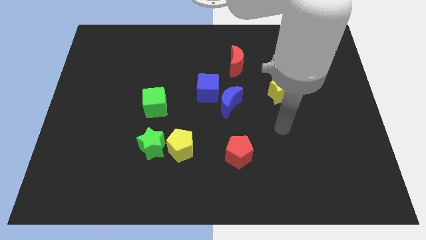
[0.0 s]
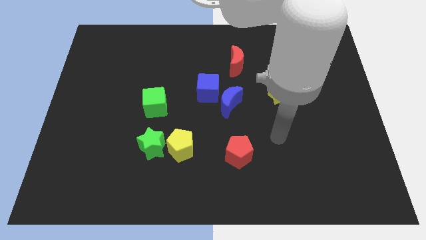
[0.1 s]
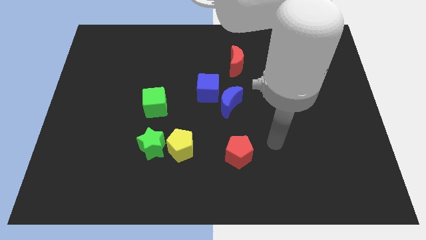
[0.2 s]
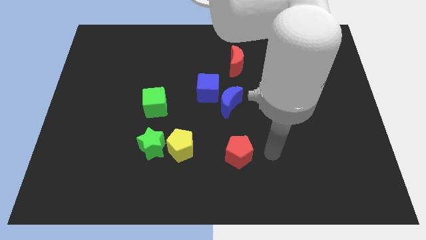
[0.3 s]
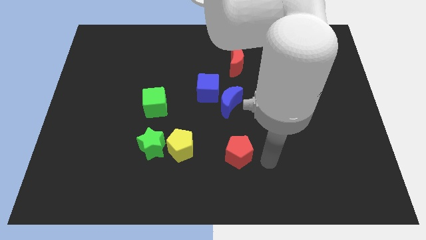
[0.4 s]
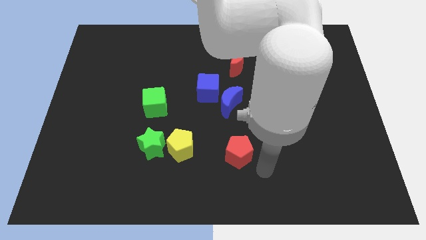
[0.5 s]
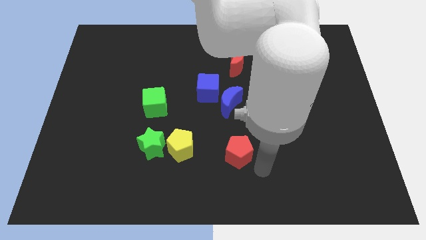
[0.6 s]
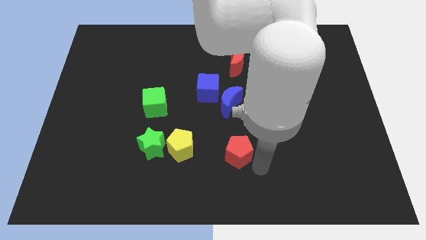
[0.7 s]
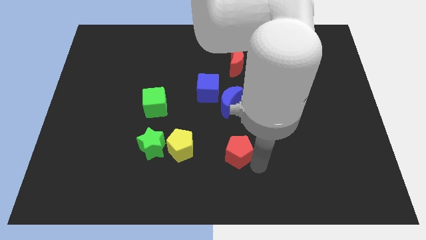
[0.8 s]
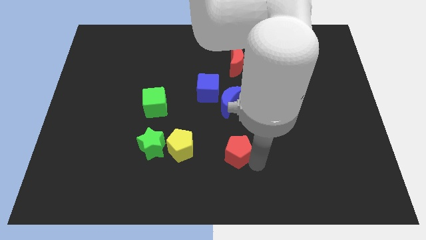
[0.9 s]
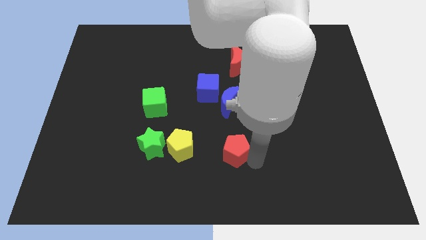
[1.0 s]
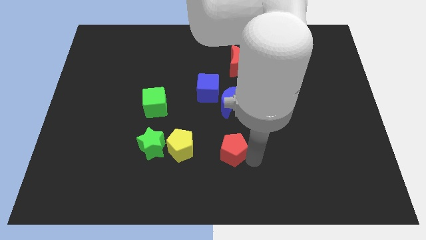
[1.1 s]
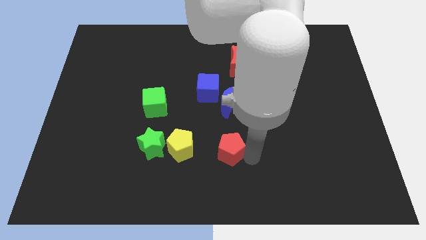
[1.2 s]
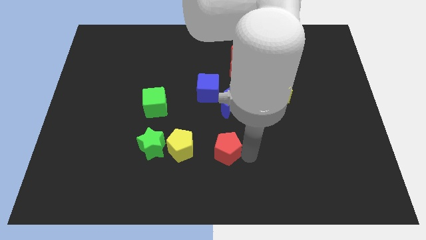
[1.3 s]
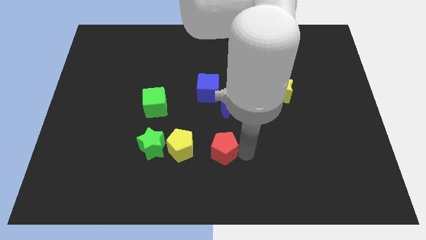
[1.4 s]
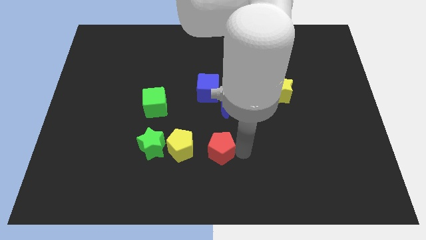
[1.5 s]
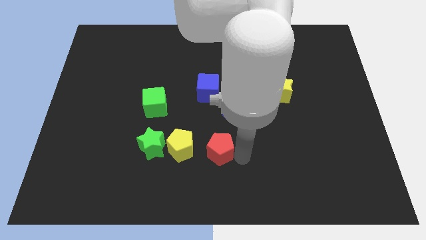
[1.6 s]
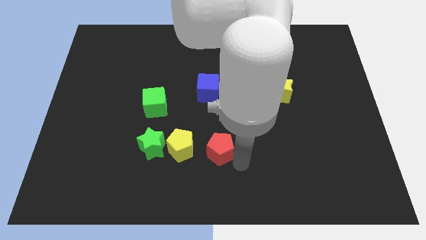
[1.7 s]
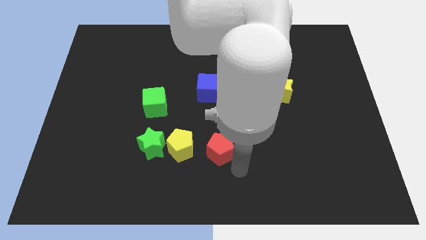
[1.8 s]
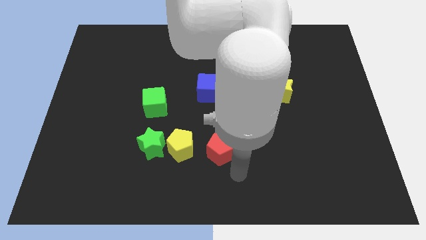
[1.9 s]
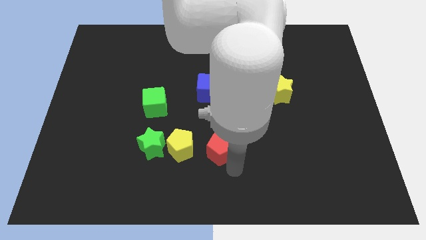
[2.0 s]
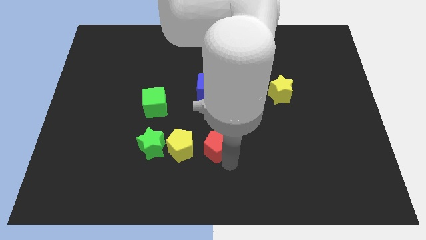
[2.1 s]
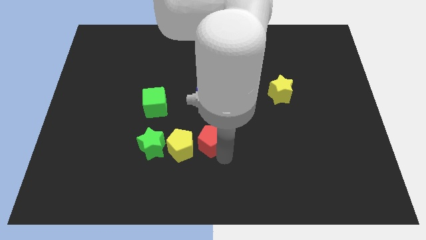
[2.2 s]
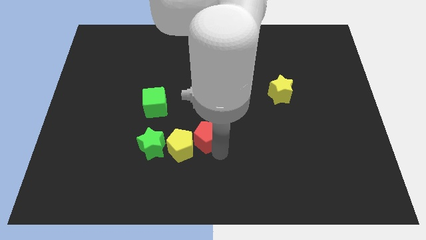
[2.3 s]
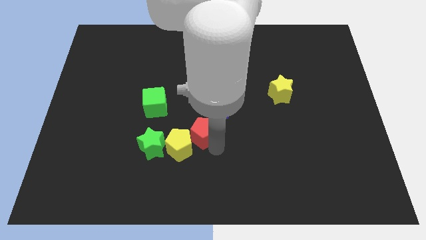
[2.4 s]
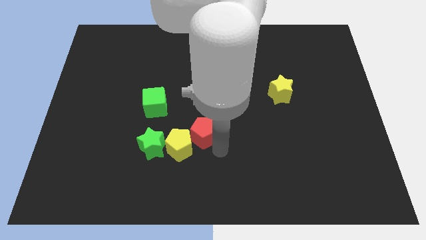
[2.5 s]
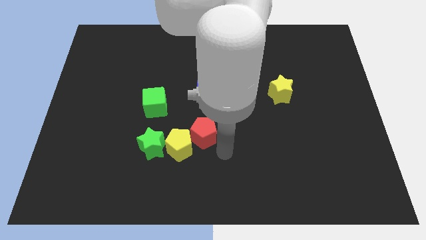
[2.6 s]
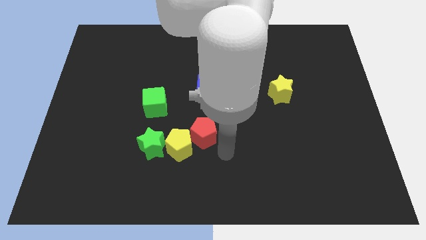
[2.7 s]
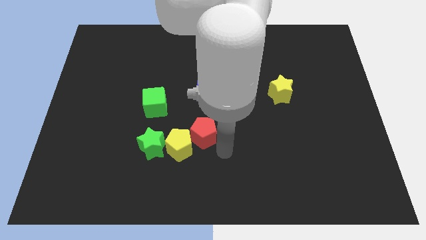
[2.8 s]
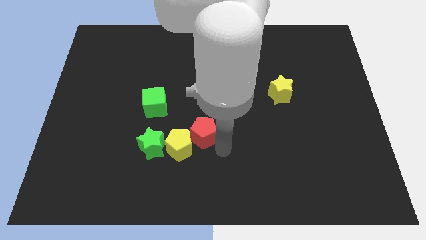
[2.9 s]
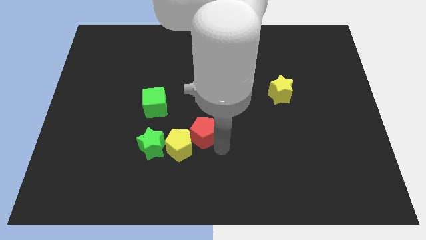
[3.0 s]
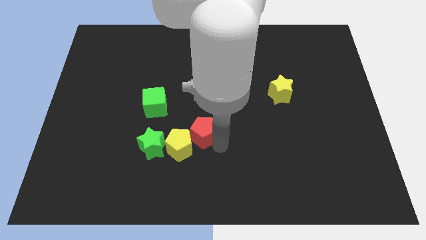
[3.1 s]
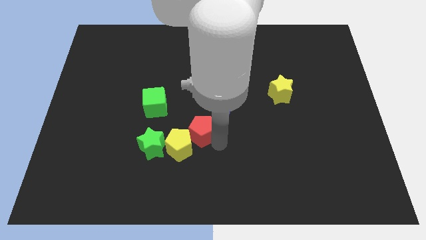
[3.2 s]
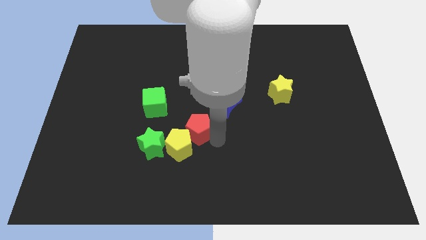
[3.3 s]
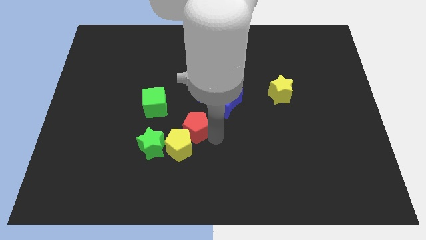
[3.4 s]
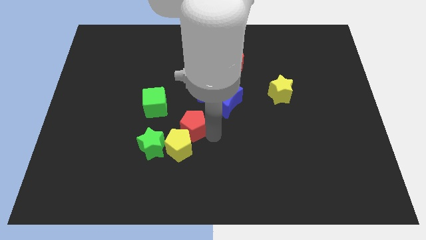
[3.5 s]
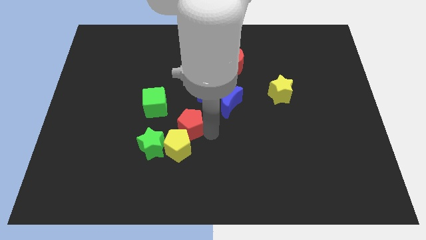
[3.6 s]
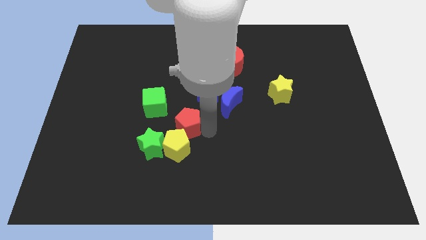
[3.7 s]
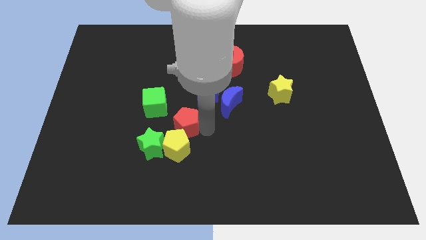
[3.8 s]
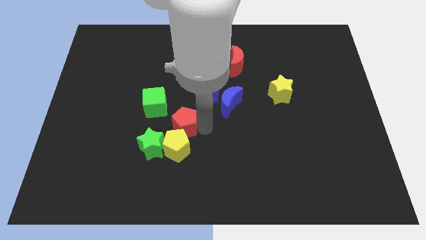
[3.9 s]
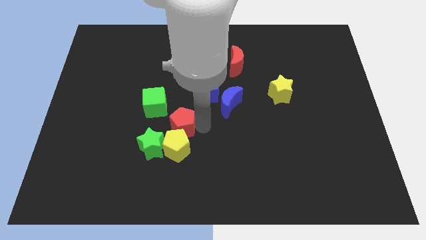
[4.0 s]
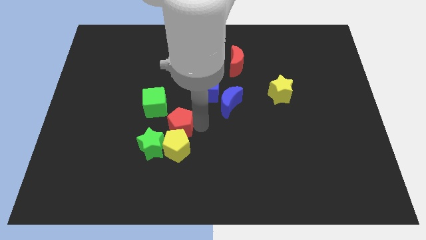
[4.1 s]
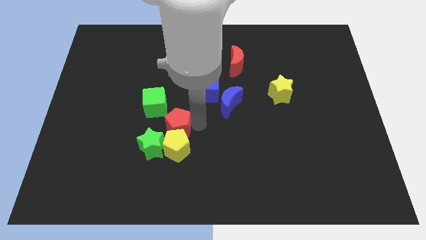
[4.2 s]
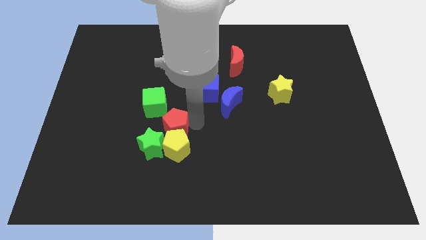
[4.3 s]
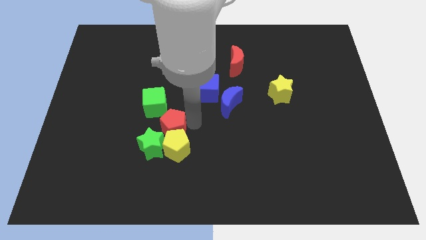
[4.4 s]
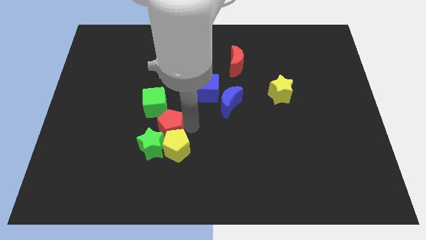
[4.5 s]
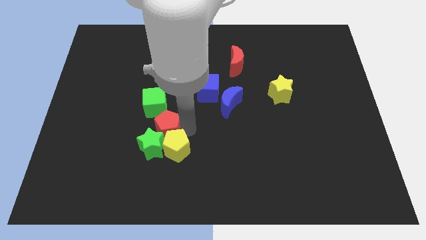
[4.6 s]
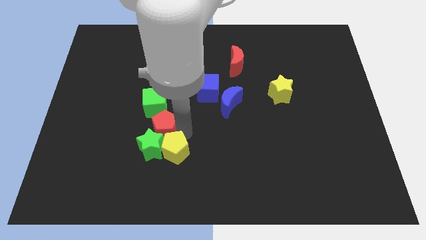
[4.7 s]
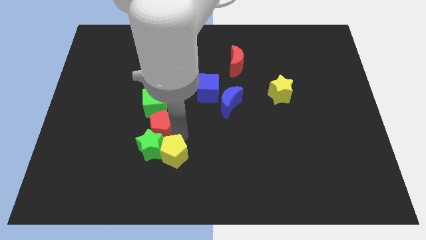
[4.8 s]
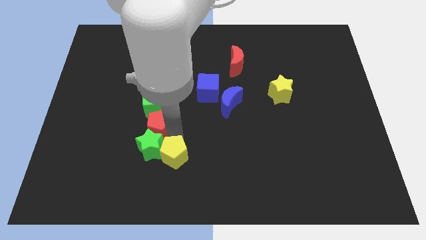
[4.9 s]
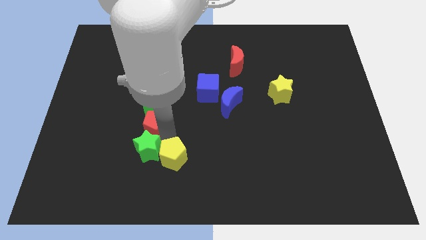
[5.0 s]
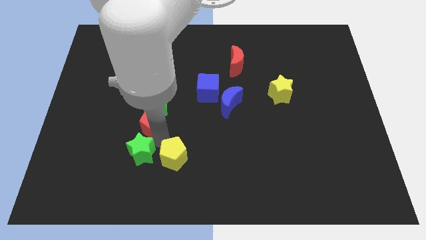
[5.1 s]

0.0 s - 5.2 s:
put the red pentagon next to the green cube

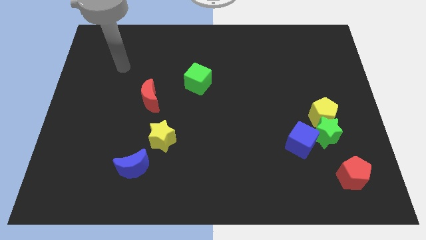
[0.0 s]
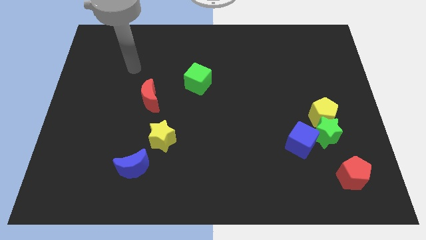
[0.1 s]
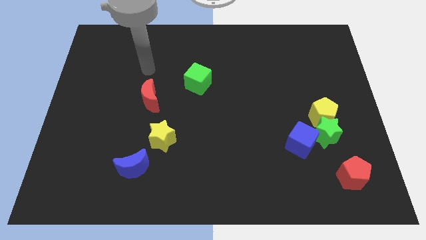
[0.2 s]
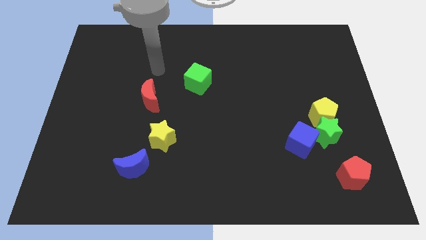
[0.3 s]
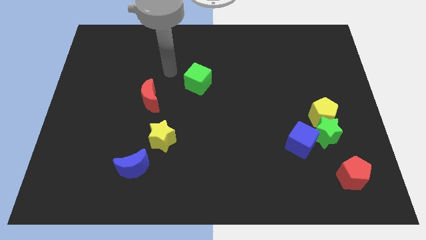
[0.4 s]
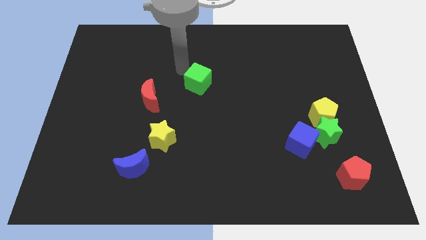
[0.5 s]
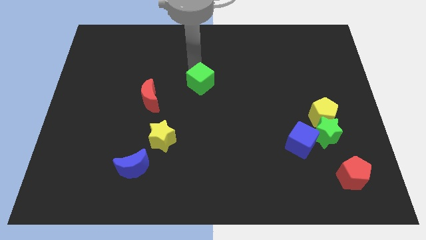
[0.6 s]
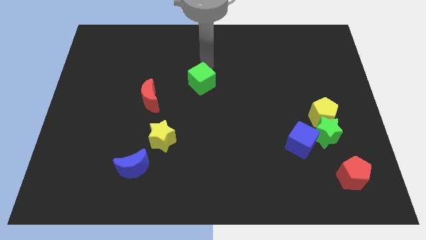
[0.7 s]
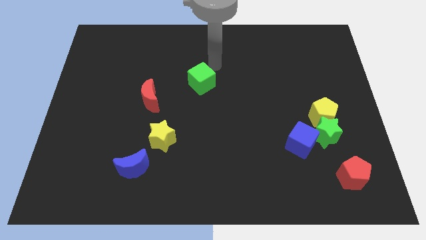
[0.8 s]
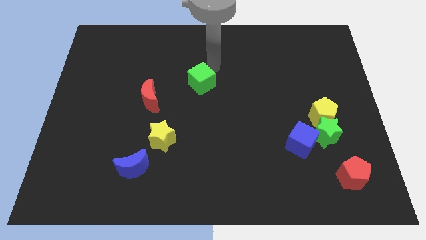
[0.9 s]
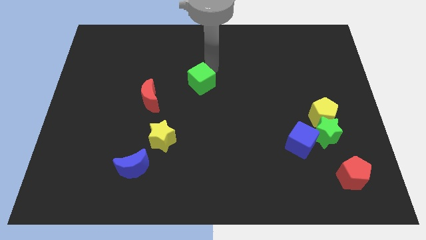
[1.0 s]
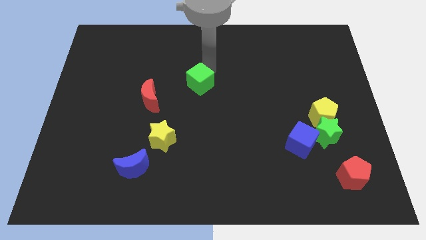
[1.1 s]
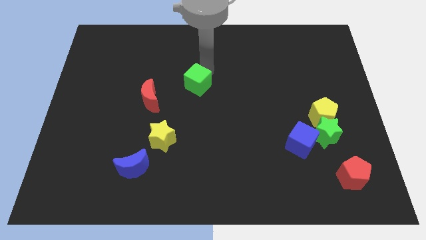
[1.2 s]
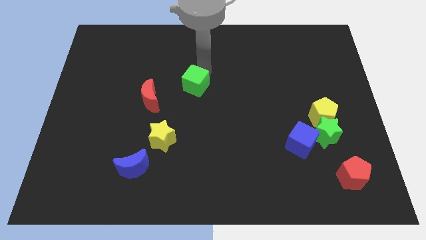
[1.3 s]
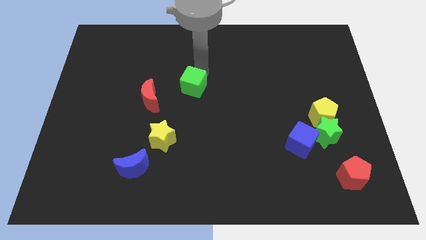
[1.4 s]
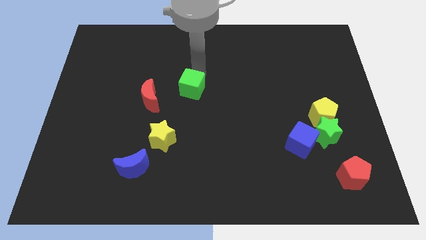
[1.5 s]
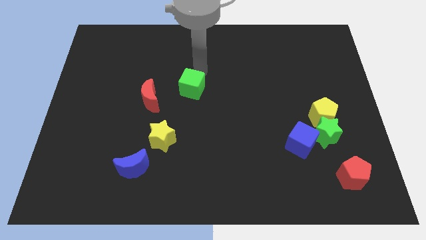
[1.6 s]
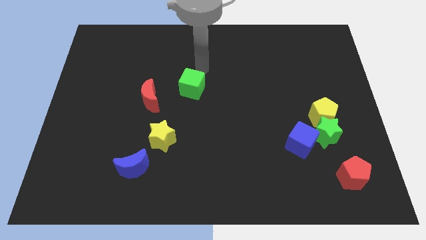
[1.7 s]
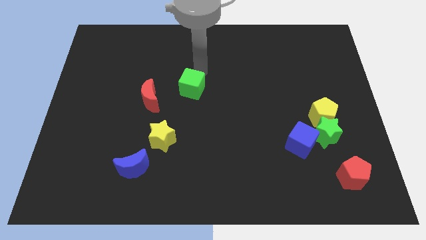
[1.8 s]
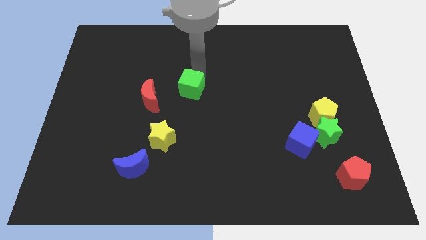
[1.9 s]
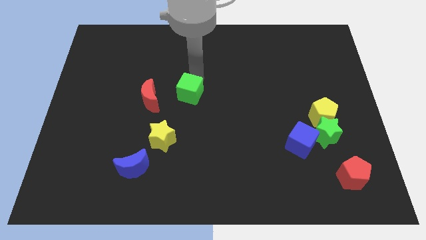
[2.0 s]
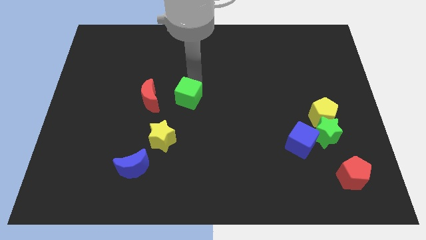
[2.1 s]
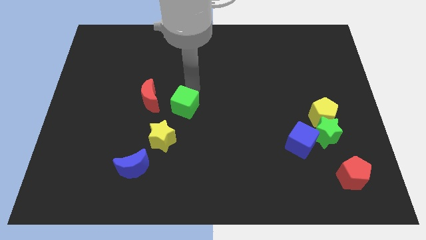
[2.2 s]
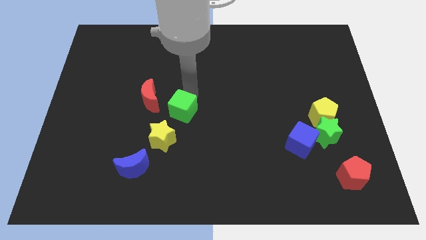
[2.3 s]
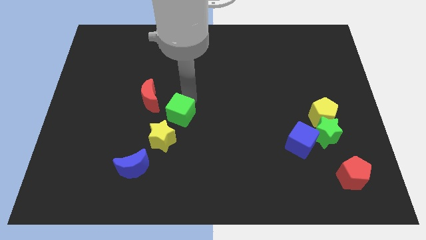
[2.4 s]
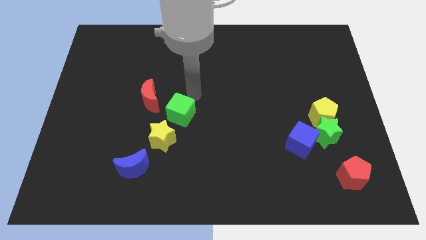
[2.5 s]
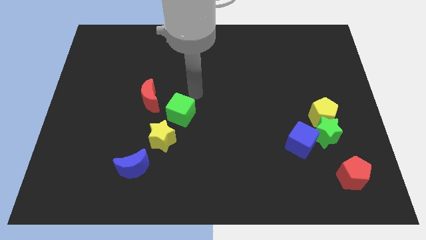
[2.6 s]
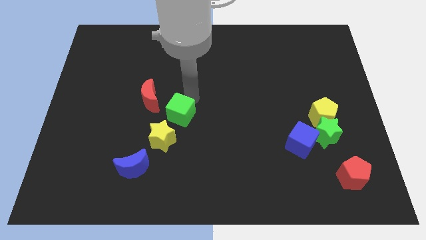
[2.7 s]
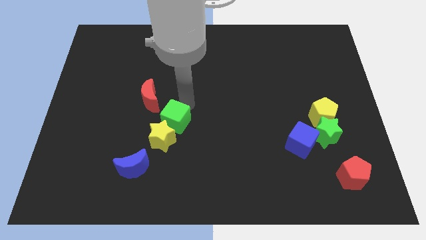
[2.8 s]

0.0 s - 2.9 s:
put the green cube next to the yellow star
